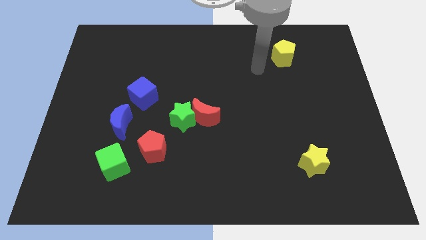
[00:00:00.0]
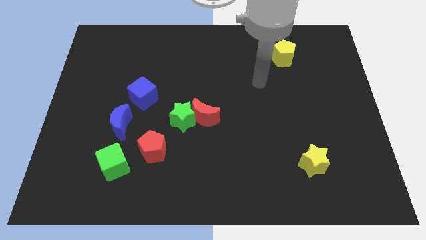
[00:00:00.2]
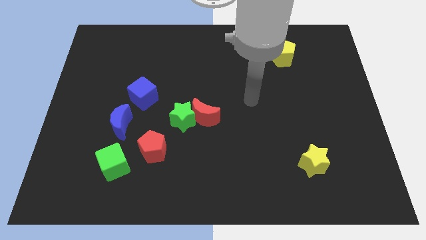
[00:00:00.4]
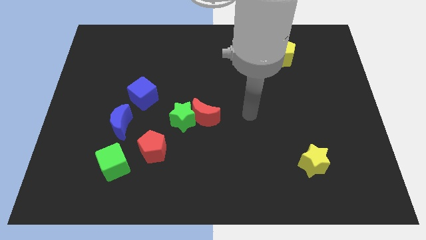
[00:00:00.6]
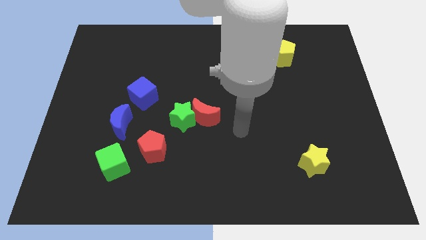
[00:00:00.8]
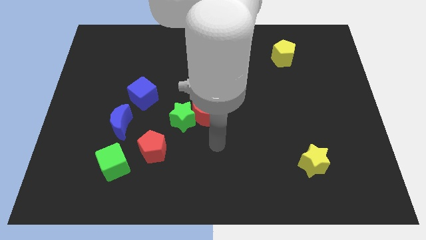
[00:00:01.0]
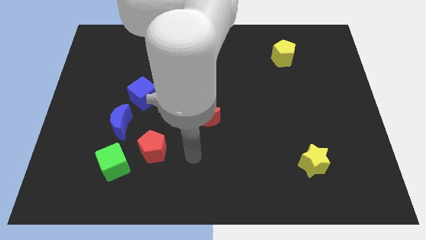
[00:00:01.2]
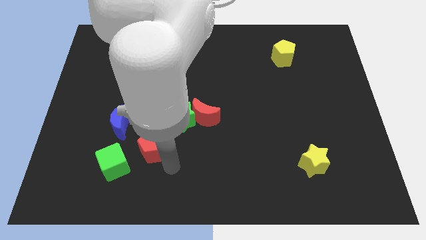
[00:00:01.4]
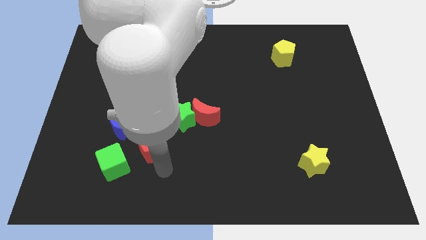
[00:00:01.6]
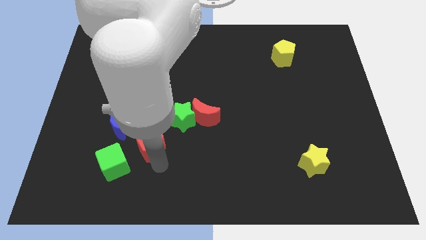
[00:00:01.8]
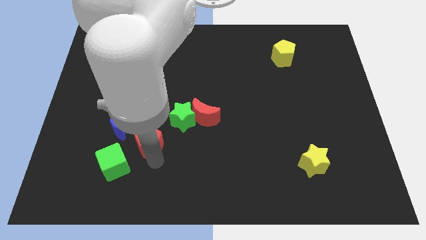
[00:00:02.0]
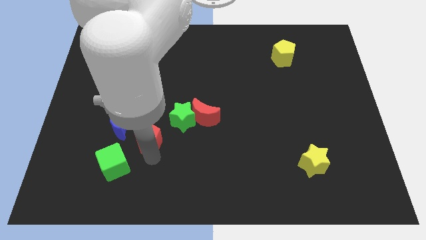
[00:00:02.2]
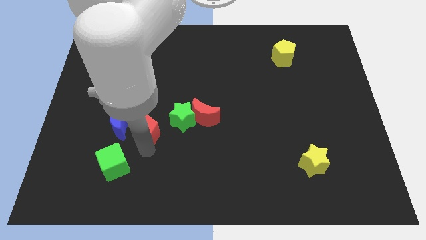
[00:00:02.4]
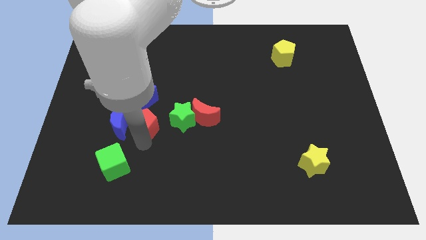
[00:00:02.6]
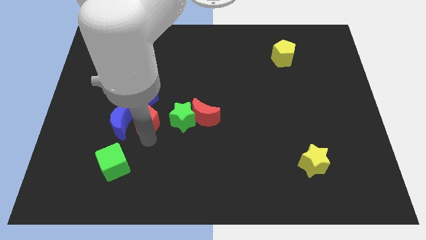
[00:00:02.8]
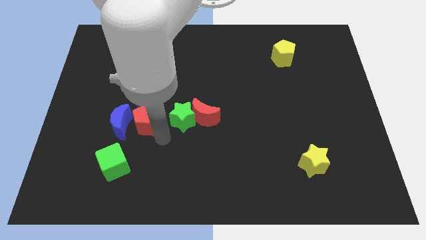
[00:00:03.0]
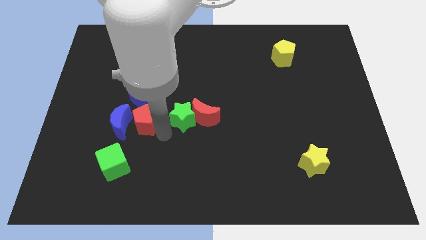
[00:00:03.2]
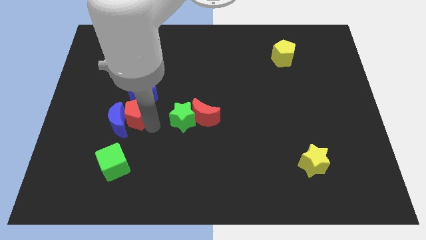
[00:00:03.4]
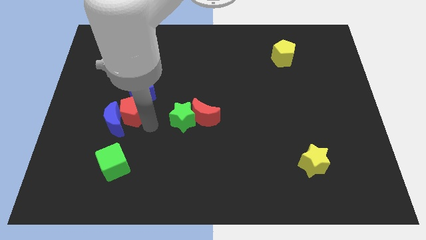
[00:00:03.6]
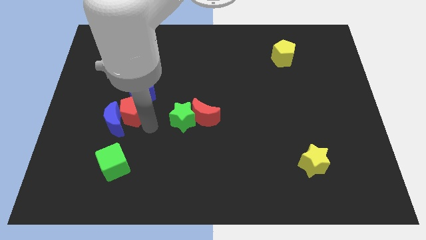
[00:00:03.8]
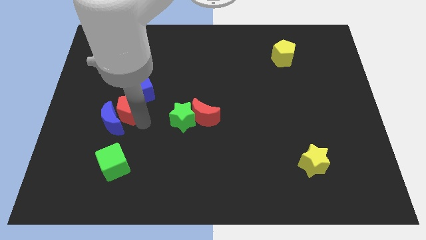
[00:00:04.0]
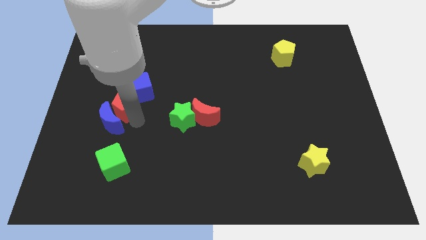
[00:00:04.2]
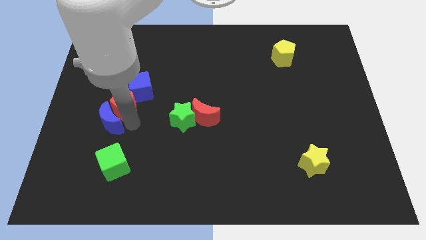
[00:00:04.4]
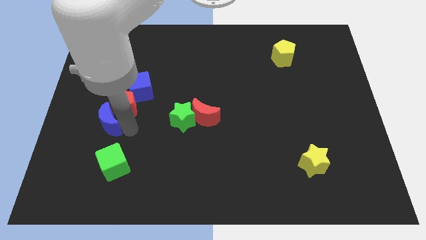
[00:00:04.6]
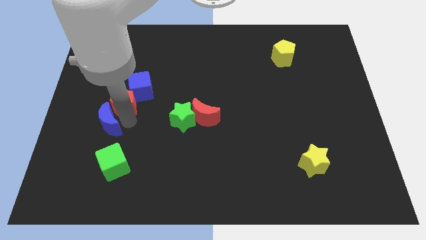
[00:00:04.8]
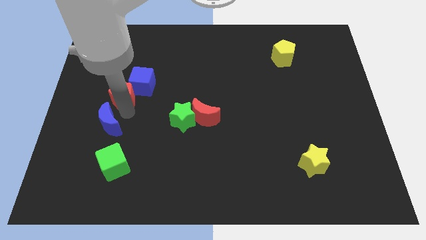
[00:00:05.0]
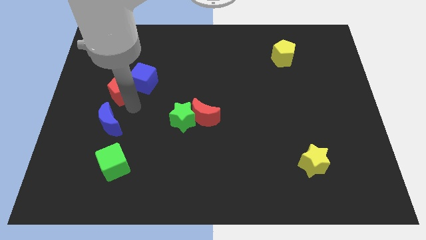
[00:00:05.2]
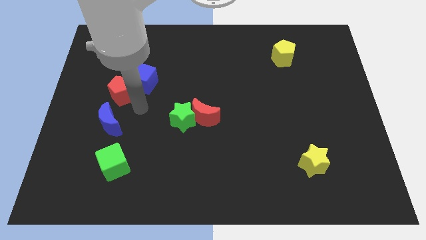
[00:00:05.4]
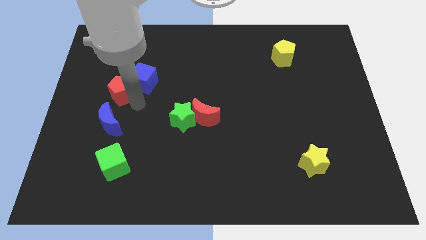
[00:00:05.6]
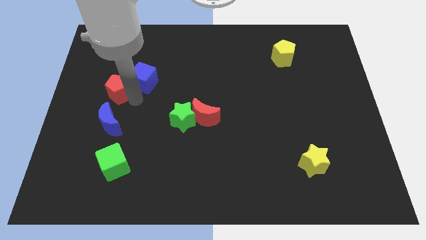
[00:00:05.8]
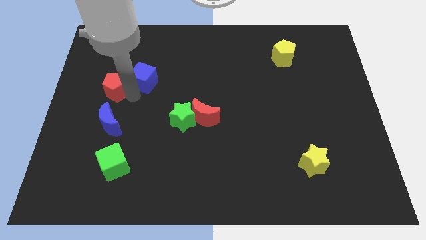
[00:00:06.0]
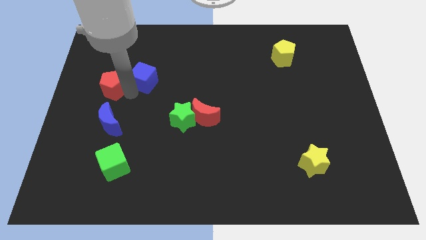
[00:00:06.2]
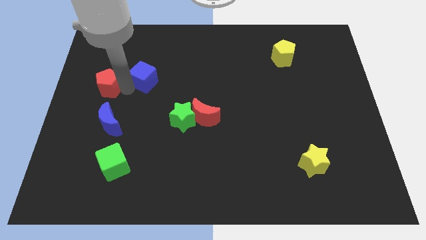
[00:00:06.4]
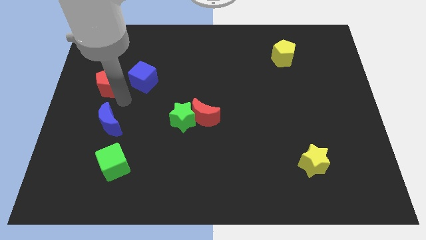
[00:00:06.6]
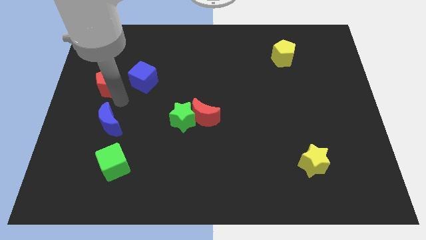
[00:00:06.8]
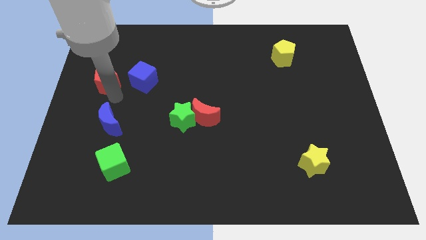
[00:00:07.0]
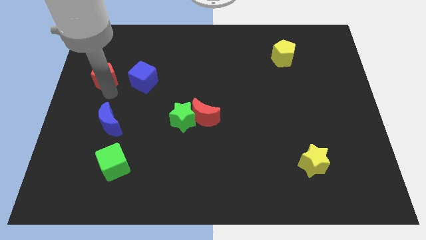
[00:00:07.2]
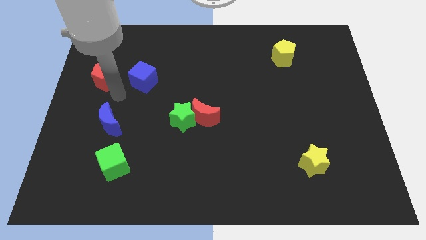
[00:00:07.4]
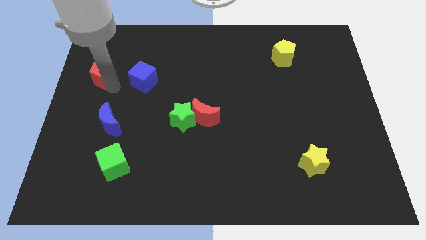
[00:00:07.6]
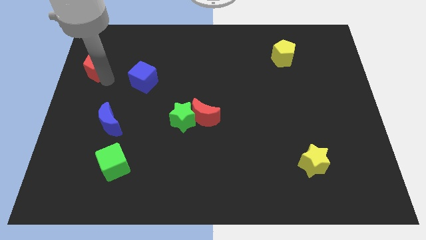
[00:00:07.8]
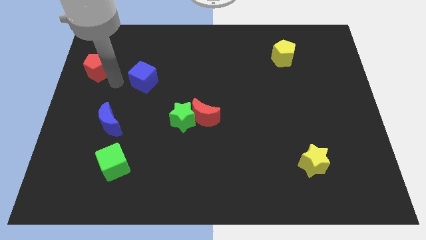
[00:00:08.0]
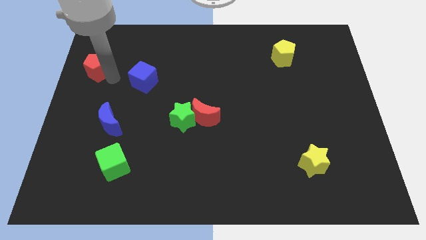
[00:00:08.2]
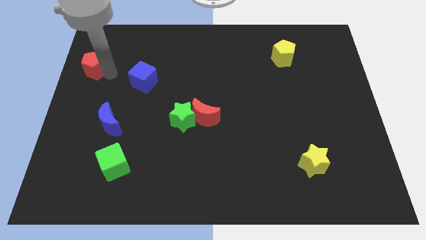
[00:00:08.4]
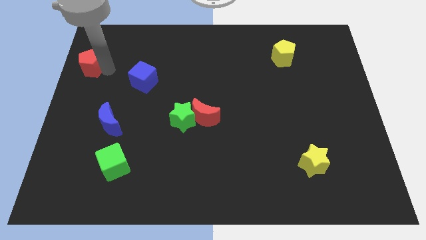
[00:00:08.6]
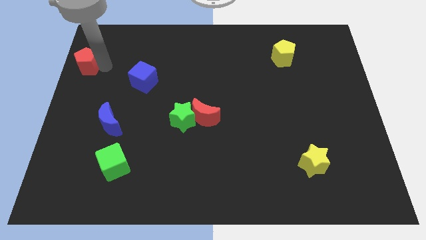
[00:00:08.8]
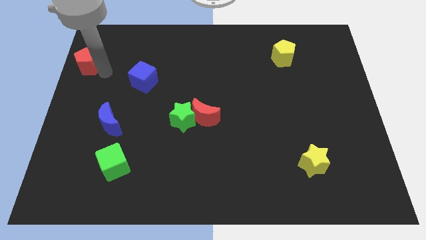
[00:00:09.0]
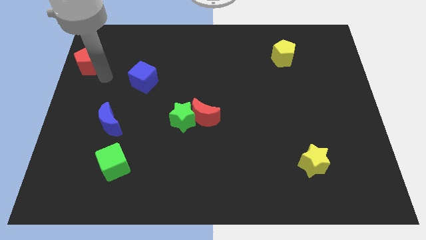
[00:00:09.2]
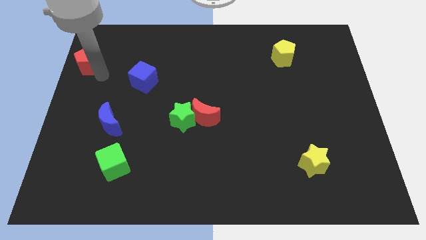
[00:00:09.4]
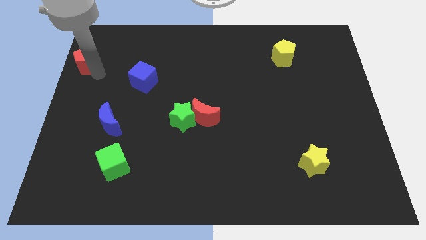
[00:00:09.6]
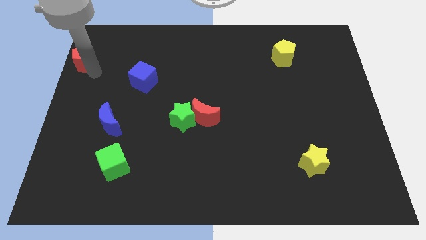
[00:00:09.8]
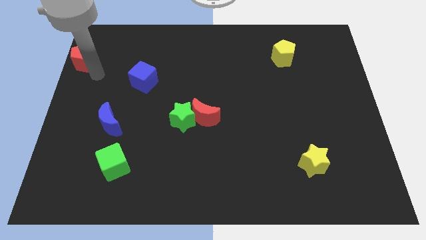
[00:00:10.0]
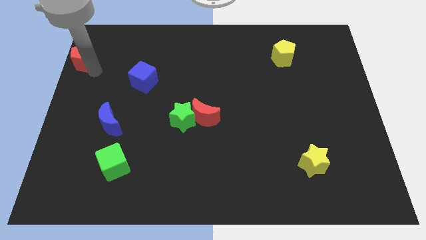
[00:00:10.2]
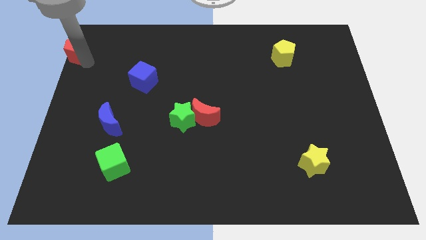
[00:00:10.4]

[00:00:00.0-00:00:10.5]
move the red pentagon to the top left

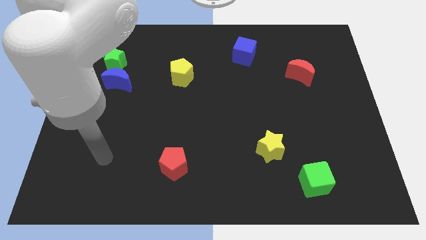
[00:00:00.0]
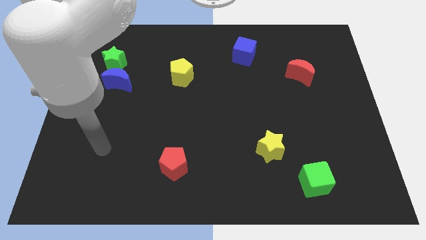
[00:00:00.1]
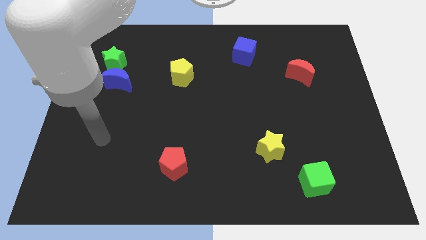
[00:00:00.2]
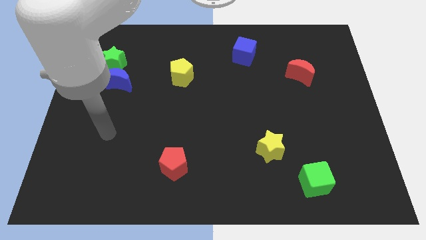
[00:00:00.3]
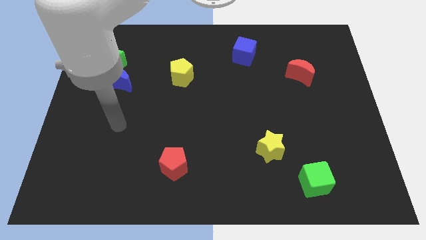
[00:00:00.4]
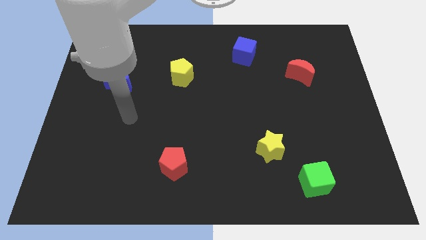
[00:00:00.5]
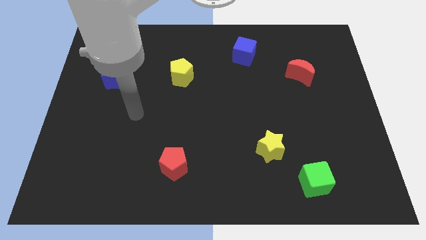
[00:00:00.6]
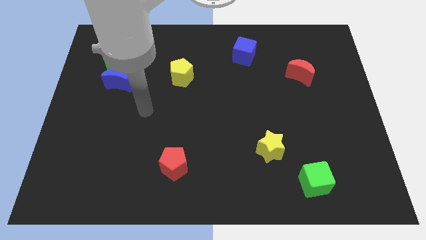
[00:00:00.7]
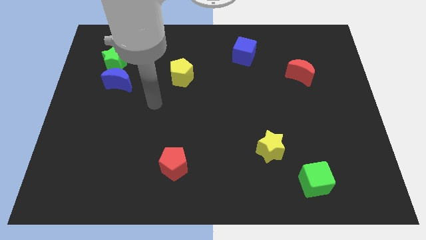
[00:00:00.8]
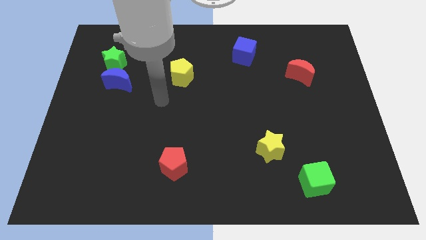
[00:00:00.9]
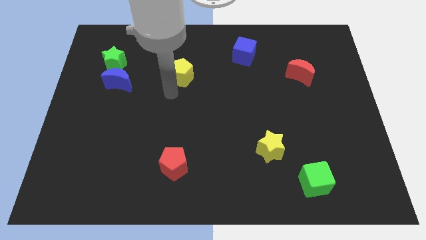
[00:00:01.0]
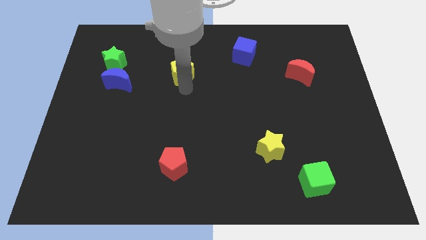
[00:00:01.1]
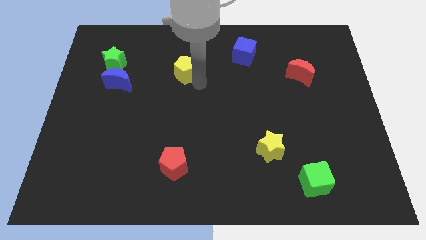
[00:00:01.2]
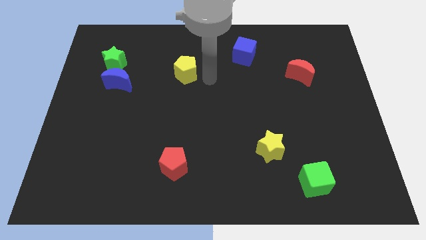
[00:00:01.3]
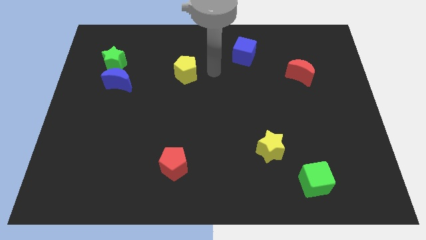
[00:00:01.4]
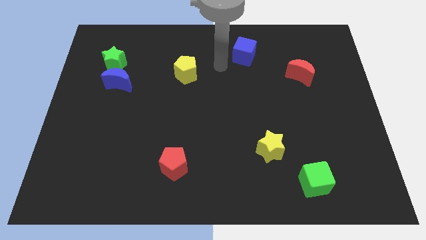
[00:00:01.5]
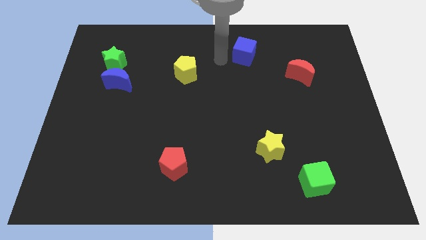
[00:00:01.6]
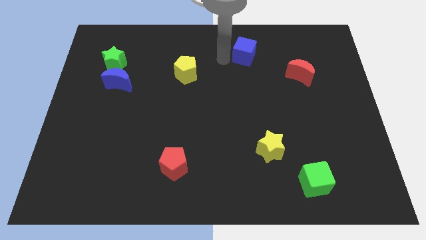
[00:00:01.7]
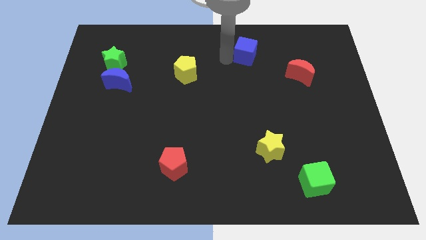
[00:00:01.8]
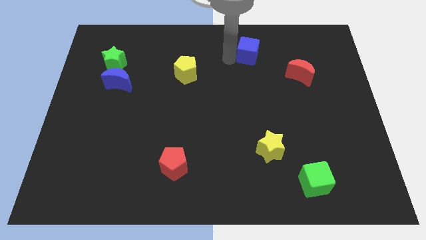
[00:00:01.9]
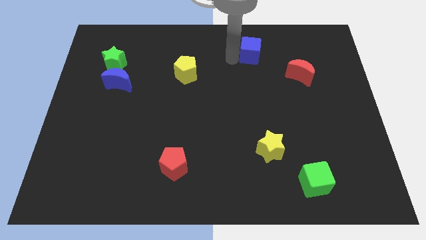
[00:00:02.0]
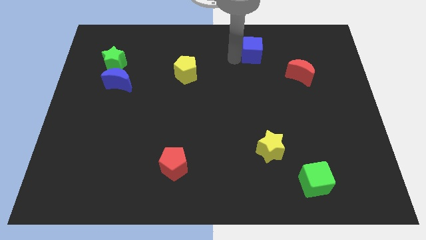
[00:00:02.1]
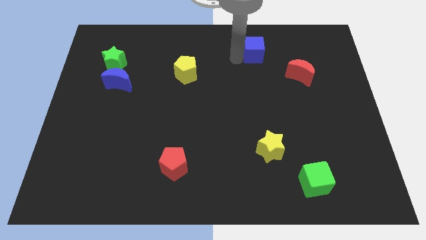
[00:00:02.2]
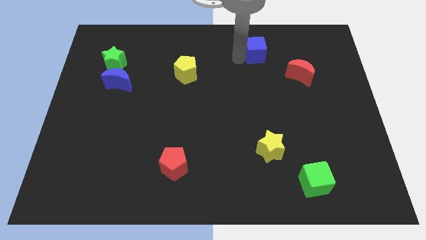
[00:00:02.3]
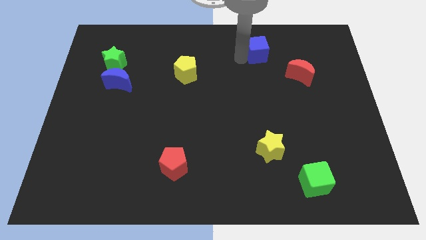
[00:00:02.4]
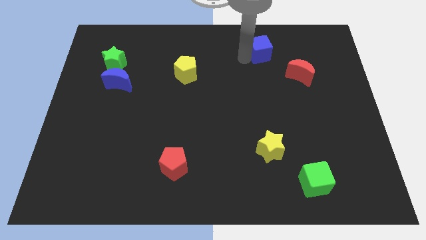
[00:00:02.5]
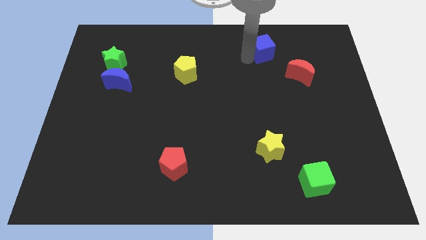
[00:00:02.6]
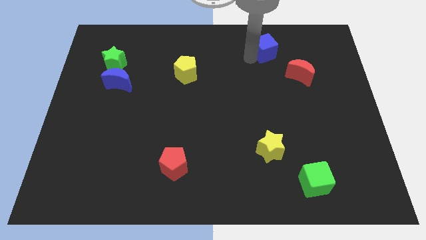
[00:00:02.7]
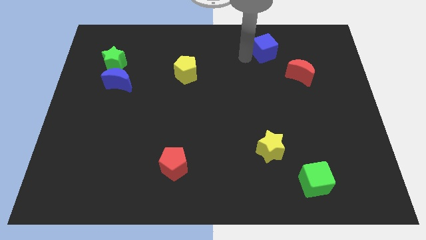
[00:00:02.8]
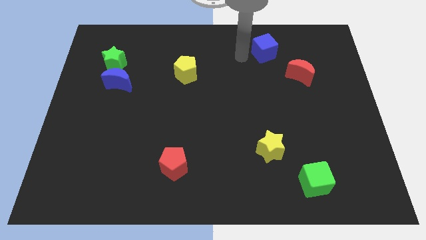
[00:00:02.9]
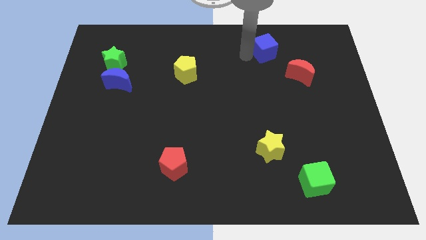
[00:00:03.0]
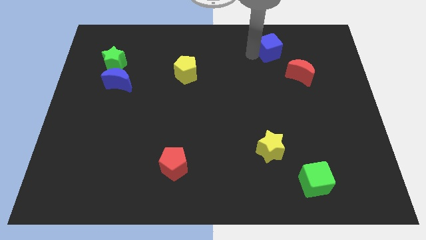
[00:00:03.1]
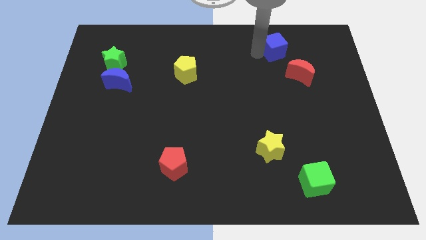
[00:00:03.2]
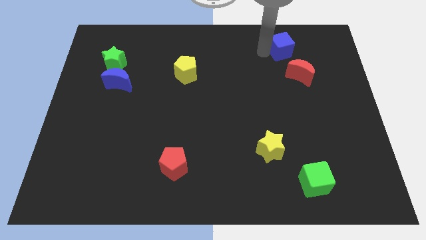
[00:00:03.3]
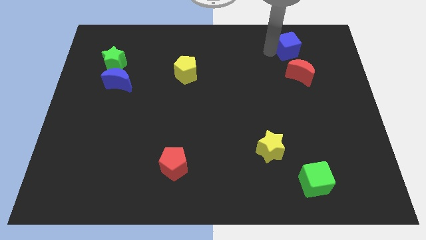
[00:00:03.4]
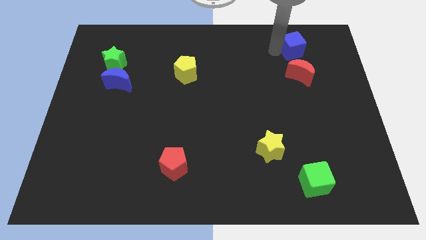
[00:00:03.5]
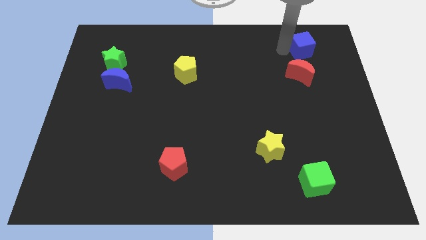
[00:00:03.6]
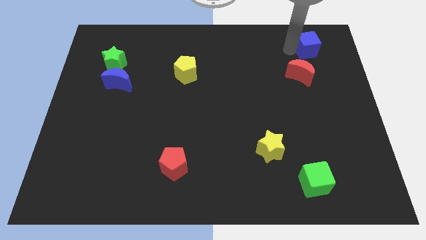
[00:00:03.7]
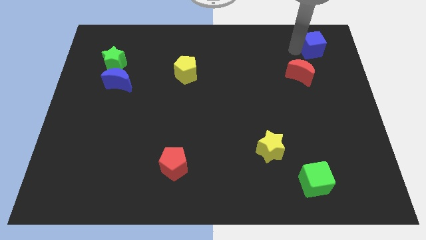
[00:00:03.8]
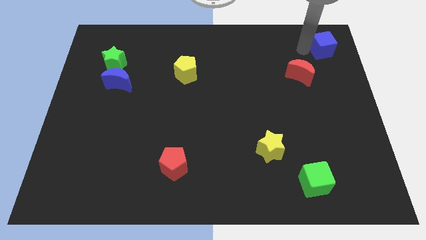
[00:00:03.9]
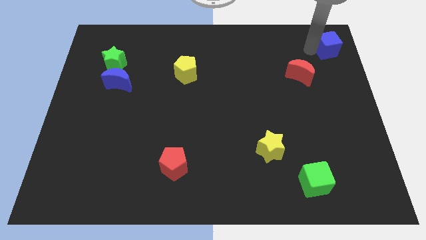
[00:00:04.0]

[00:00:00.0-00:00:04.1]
move the blue cube to the top right of the board
